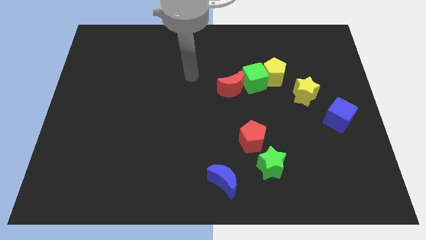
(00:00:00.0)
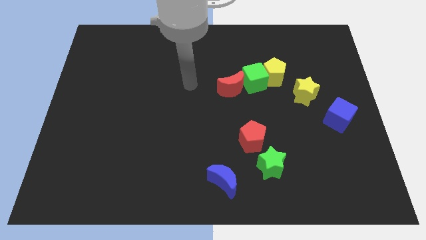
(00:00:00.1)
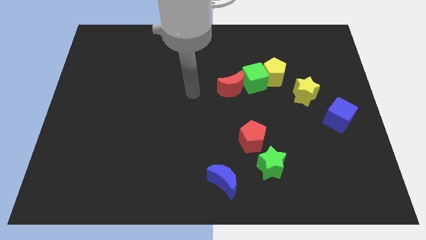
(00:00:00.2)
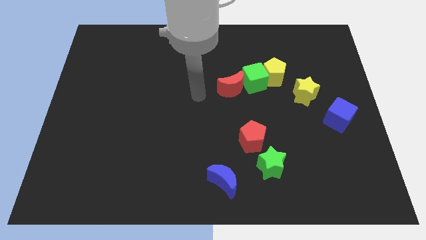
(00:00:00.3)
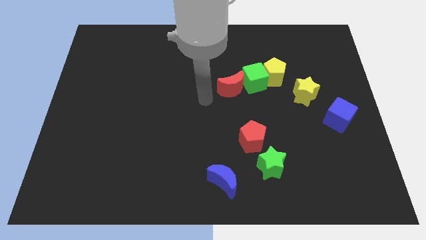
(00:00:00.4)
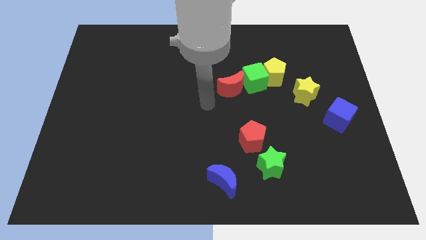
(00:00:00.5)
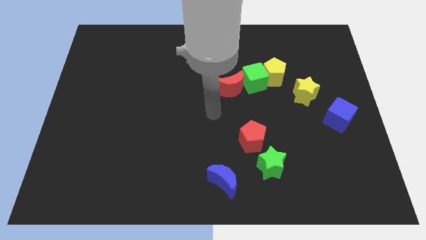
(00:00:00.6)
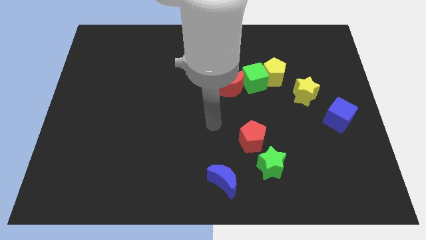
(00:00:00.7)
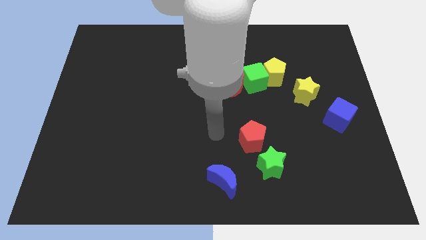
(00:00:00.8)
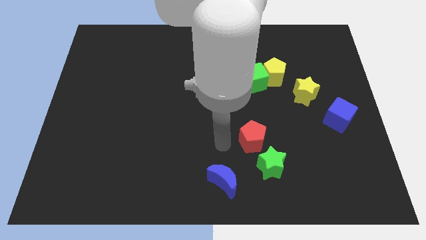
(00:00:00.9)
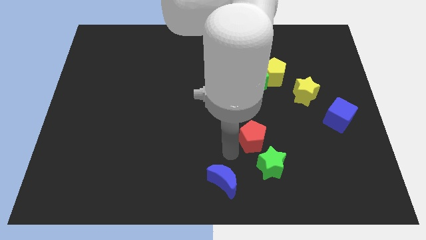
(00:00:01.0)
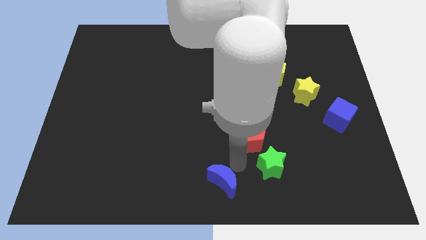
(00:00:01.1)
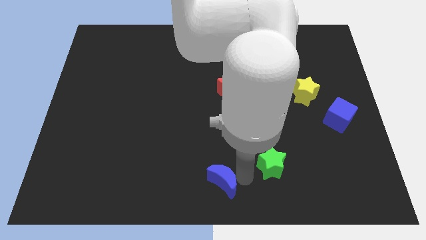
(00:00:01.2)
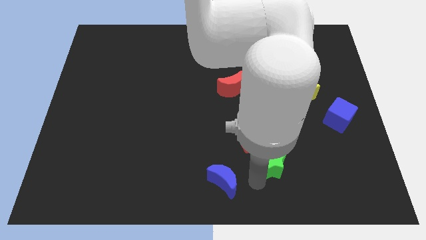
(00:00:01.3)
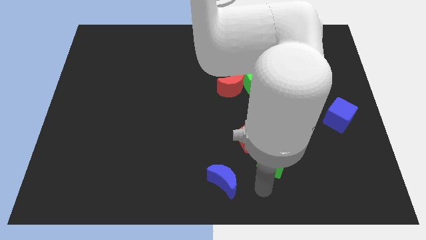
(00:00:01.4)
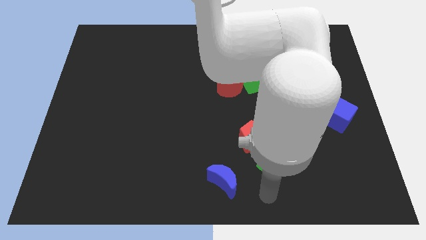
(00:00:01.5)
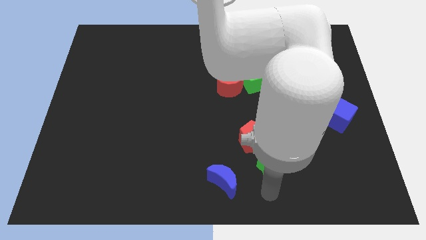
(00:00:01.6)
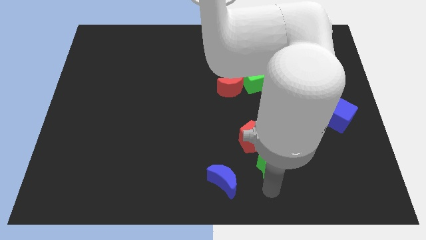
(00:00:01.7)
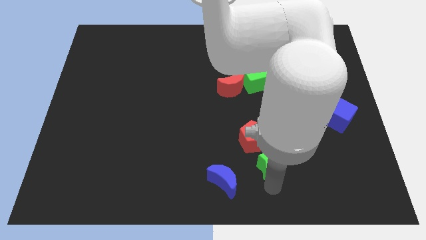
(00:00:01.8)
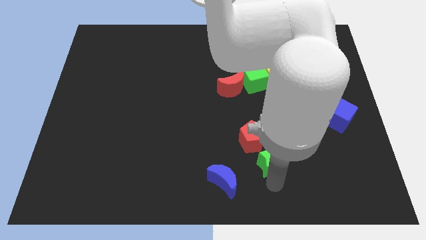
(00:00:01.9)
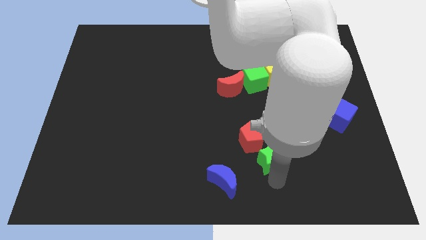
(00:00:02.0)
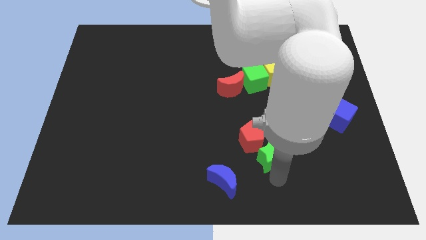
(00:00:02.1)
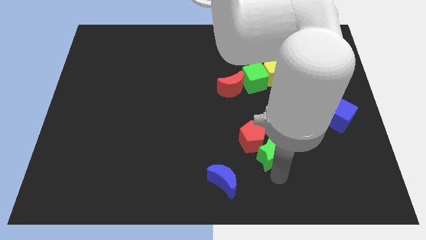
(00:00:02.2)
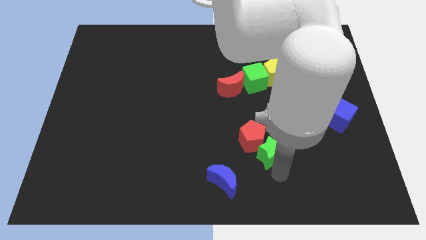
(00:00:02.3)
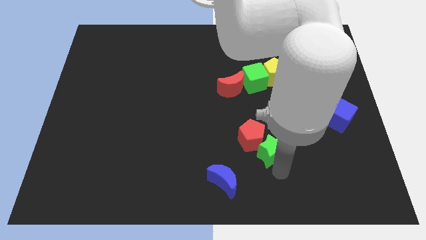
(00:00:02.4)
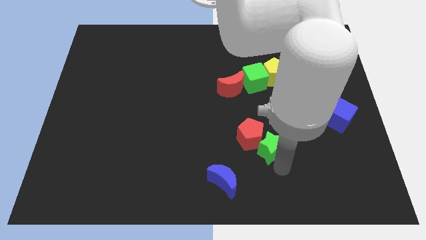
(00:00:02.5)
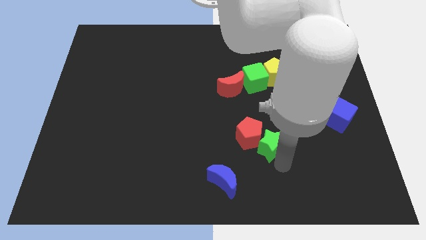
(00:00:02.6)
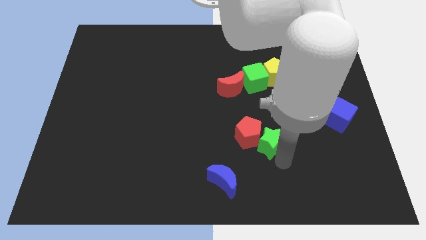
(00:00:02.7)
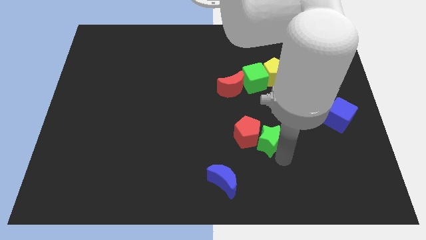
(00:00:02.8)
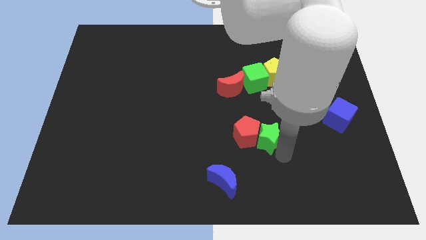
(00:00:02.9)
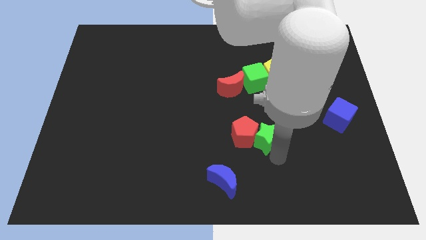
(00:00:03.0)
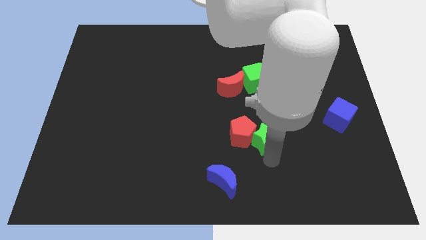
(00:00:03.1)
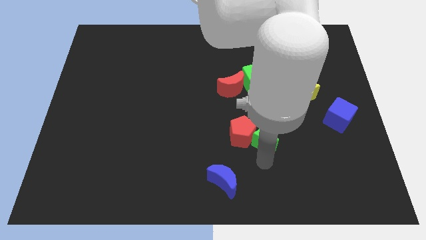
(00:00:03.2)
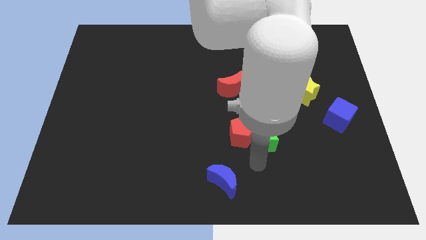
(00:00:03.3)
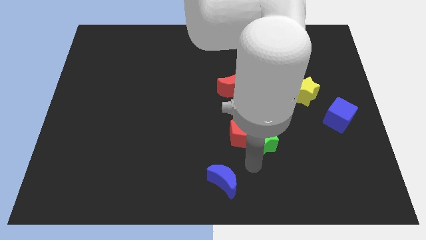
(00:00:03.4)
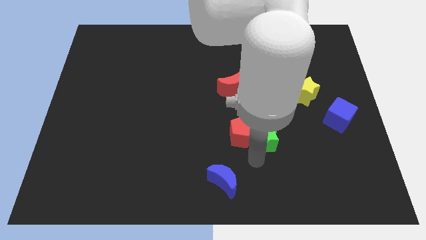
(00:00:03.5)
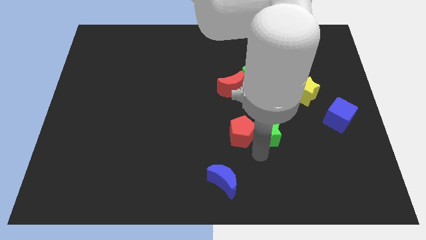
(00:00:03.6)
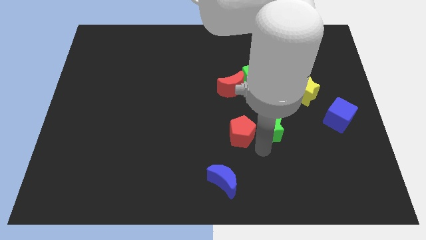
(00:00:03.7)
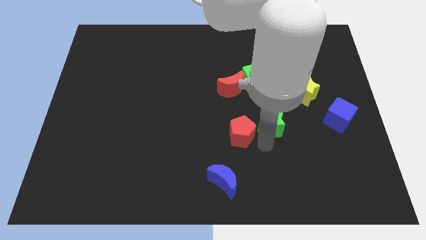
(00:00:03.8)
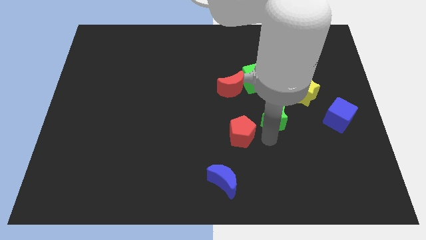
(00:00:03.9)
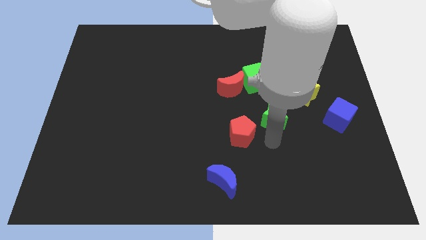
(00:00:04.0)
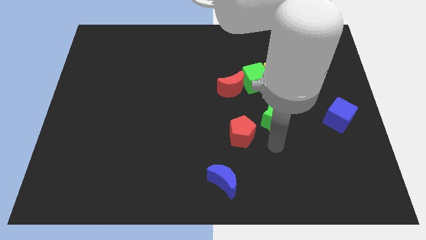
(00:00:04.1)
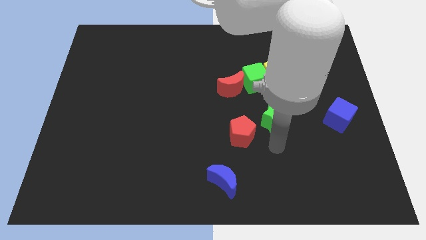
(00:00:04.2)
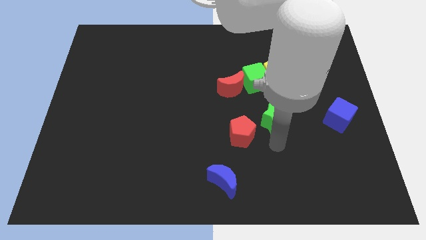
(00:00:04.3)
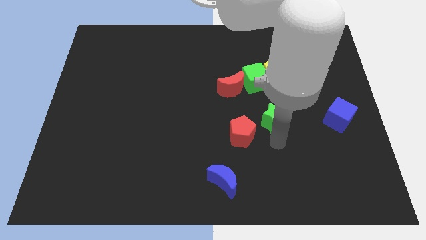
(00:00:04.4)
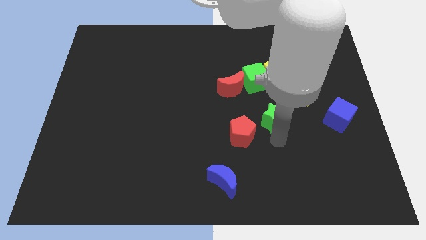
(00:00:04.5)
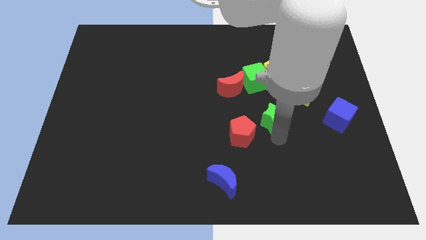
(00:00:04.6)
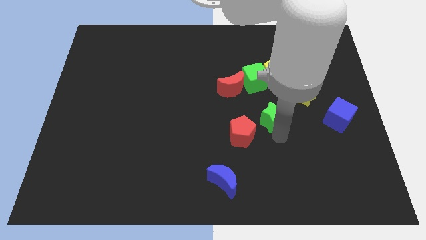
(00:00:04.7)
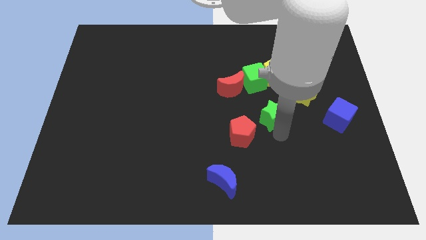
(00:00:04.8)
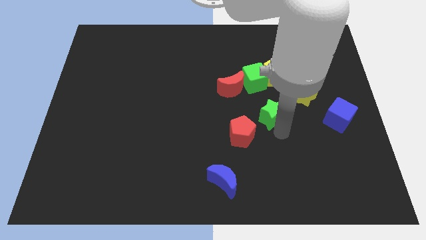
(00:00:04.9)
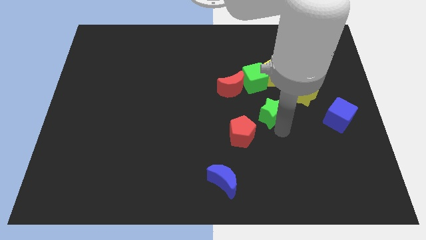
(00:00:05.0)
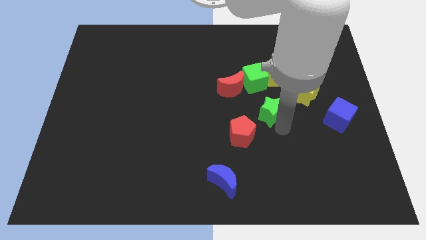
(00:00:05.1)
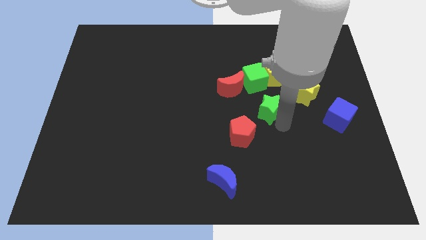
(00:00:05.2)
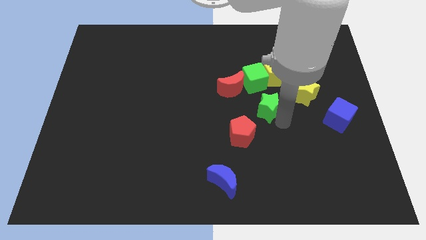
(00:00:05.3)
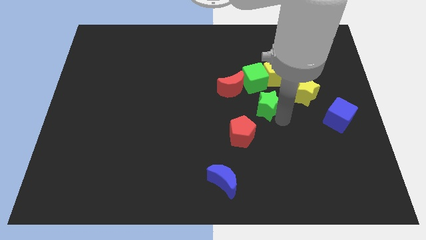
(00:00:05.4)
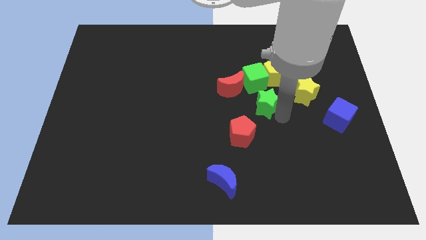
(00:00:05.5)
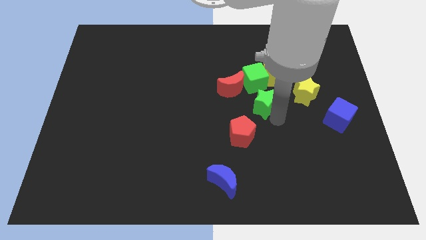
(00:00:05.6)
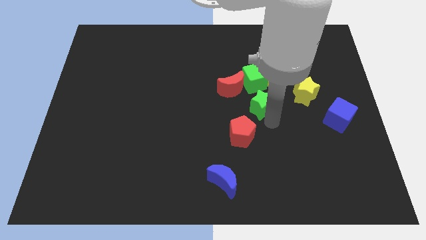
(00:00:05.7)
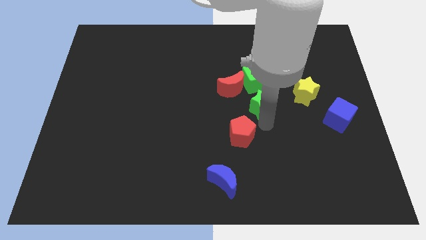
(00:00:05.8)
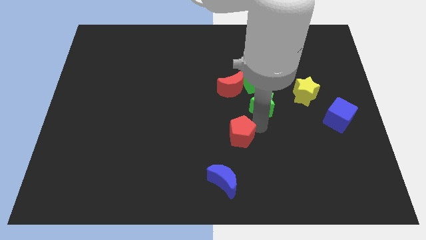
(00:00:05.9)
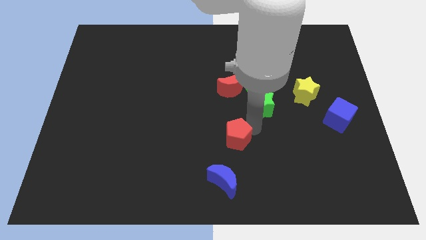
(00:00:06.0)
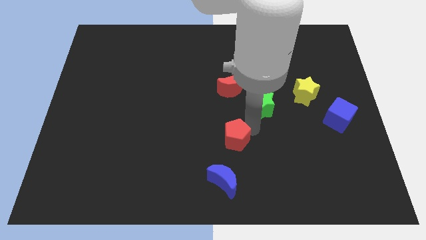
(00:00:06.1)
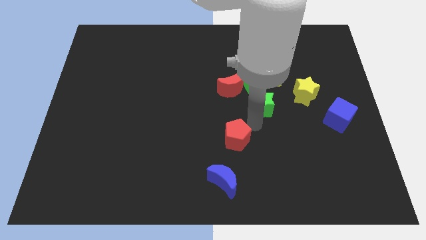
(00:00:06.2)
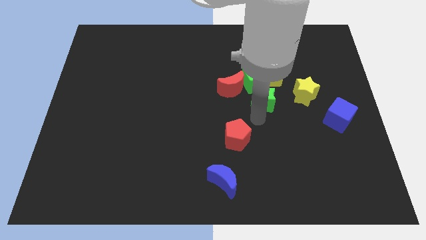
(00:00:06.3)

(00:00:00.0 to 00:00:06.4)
slide the green star right of the red moon
